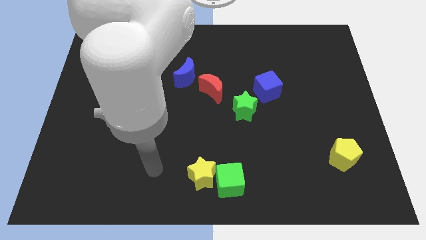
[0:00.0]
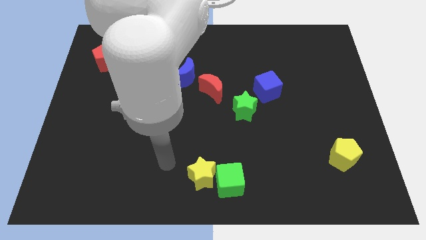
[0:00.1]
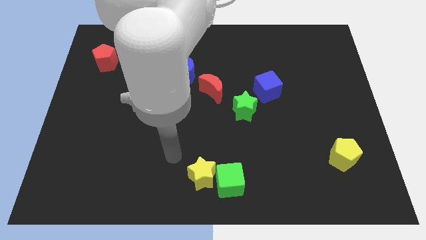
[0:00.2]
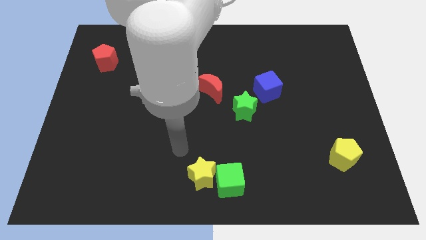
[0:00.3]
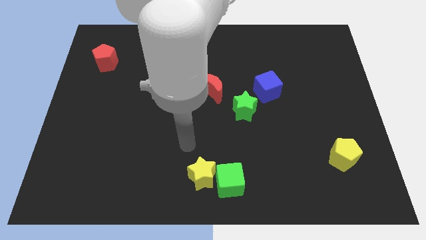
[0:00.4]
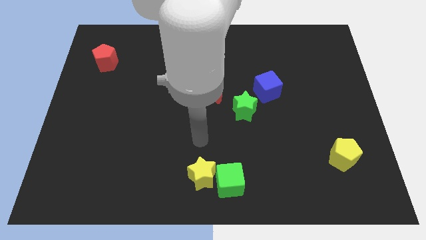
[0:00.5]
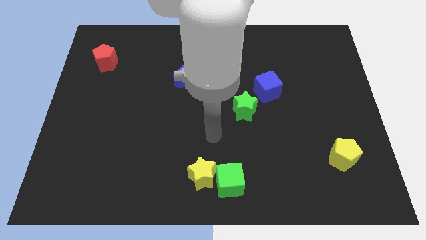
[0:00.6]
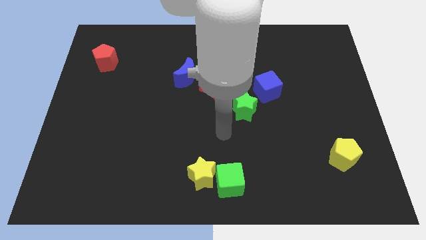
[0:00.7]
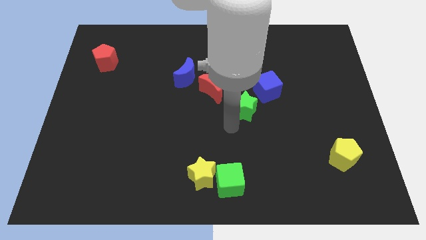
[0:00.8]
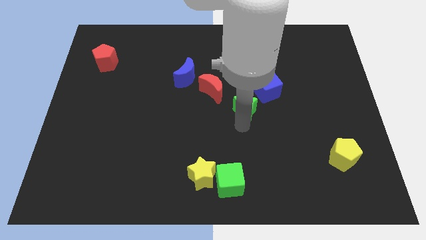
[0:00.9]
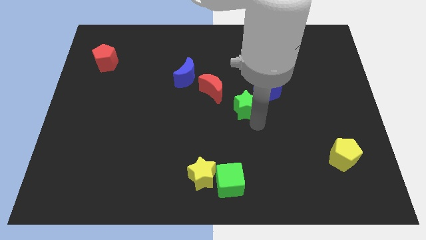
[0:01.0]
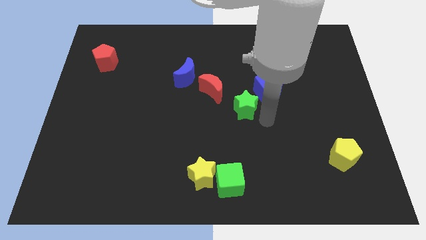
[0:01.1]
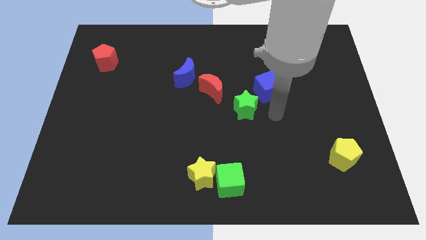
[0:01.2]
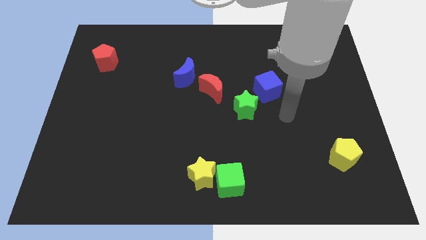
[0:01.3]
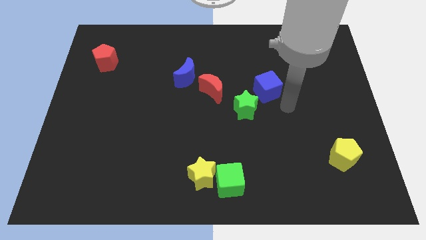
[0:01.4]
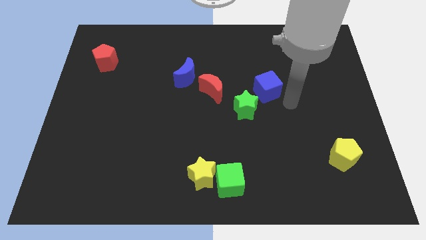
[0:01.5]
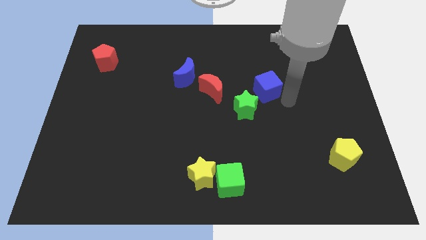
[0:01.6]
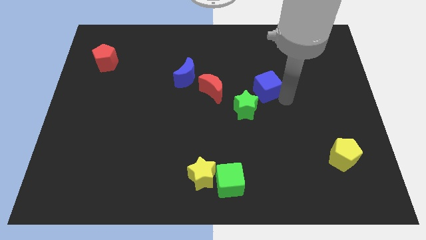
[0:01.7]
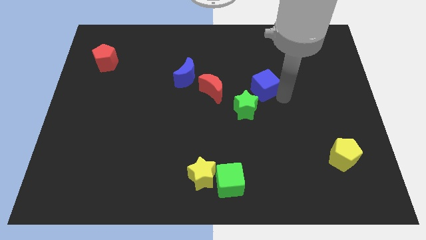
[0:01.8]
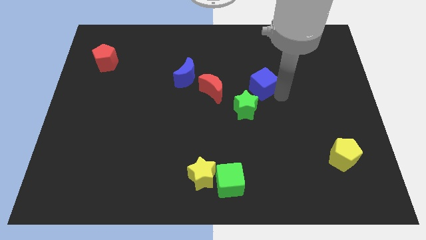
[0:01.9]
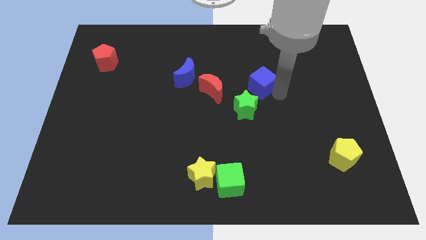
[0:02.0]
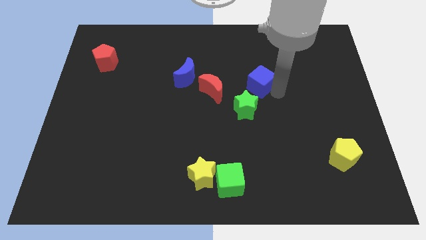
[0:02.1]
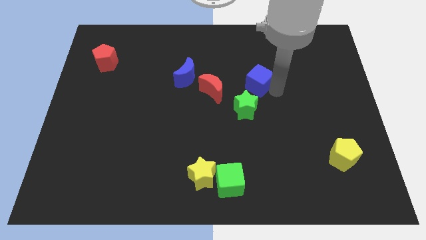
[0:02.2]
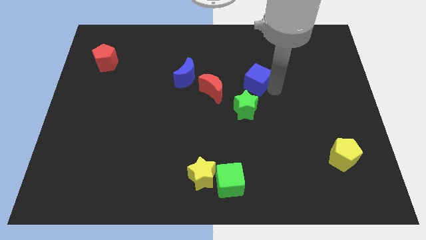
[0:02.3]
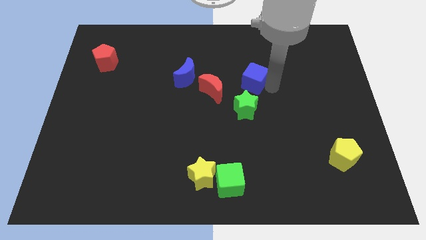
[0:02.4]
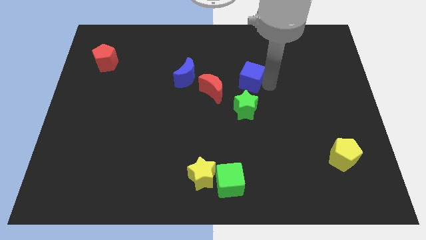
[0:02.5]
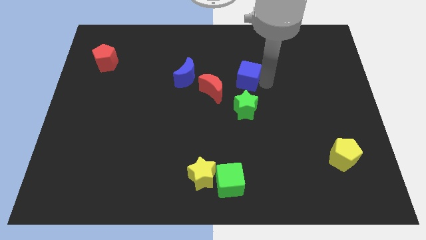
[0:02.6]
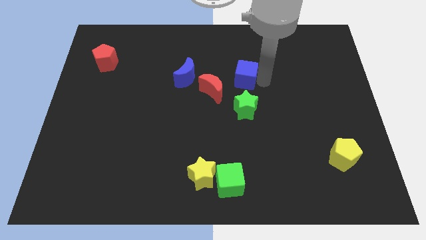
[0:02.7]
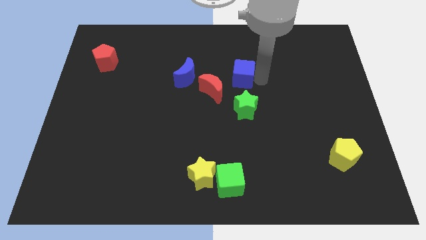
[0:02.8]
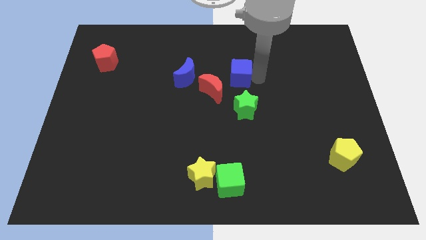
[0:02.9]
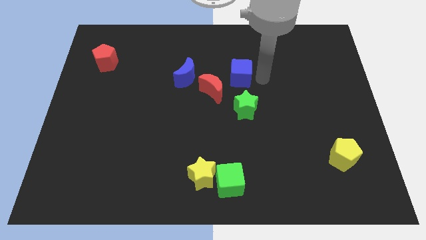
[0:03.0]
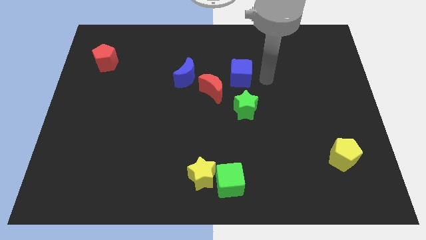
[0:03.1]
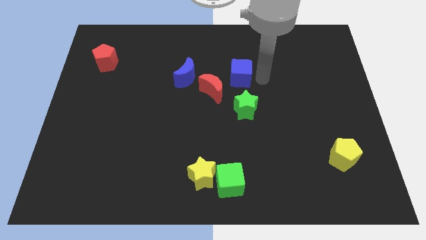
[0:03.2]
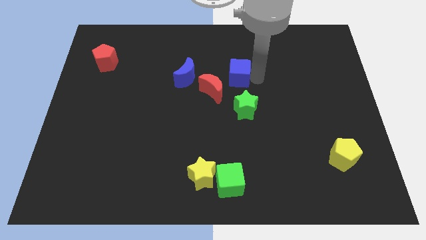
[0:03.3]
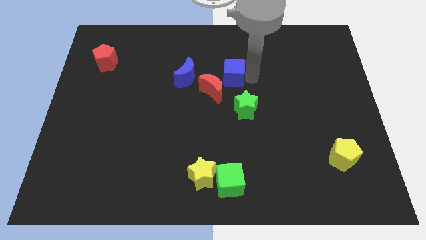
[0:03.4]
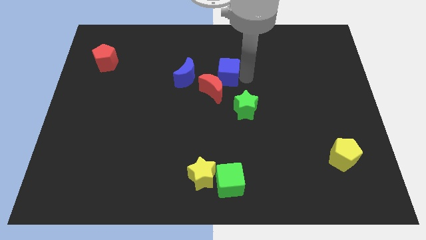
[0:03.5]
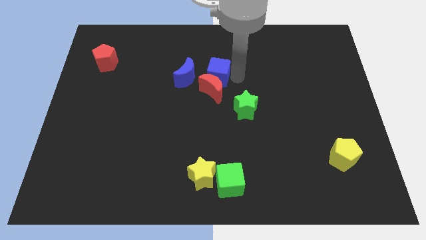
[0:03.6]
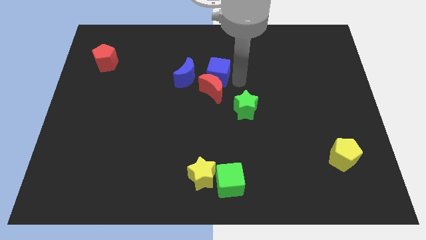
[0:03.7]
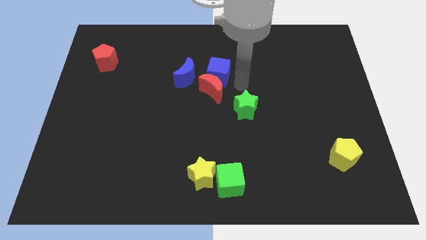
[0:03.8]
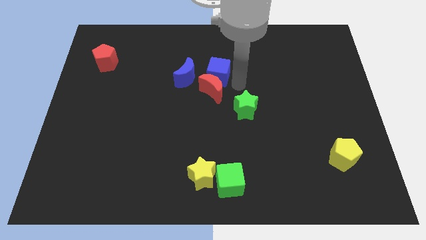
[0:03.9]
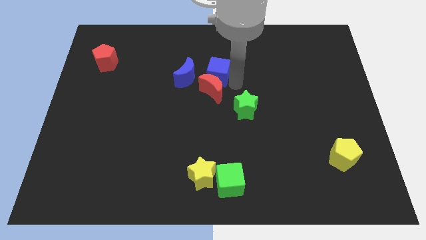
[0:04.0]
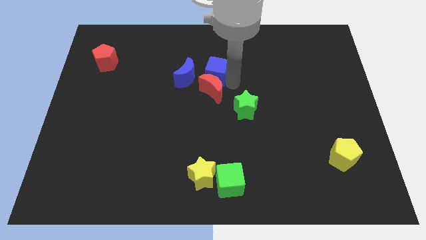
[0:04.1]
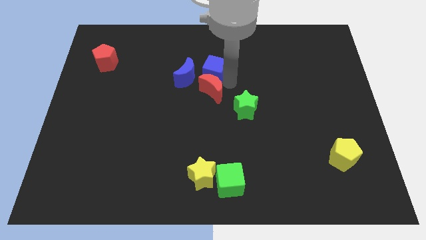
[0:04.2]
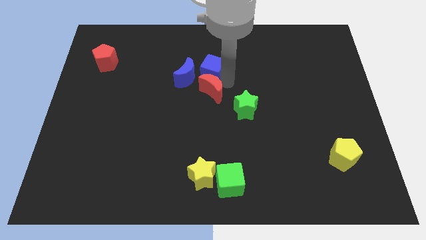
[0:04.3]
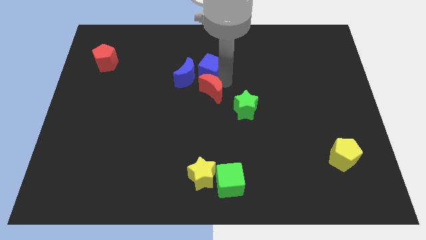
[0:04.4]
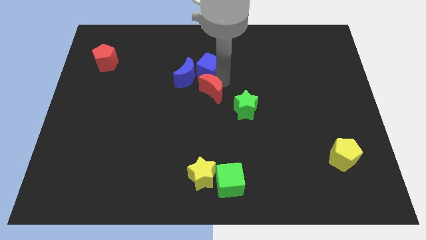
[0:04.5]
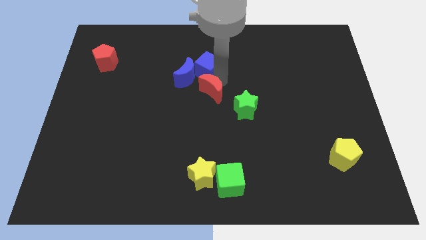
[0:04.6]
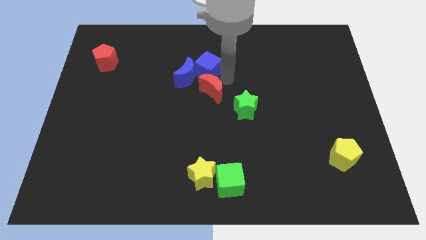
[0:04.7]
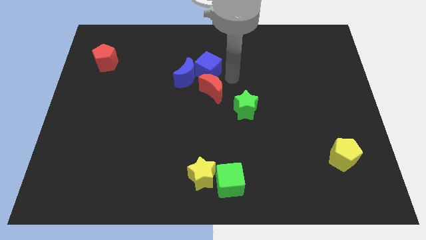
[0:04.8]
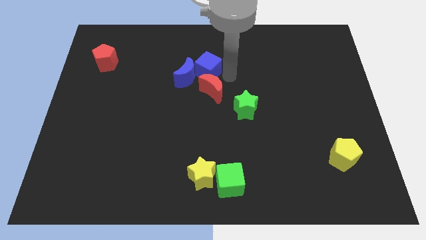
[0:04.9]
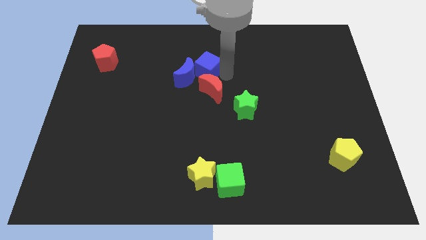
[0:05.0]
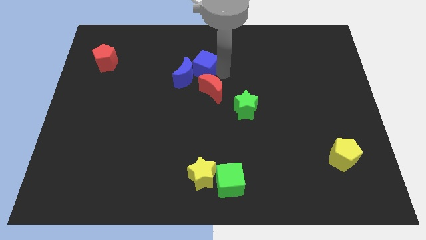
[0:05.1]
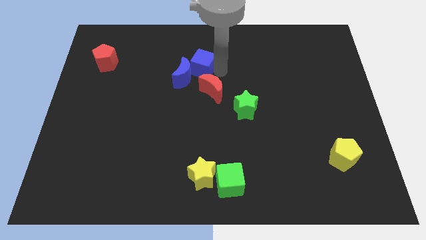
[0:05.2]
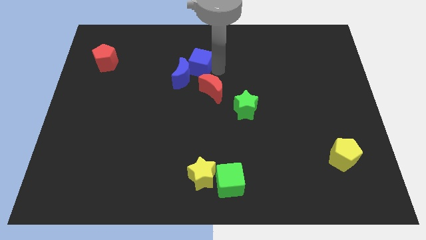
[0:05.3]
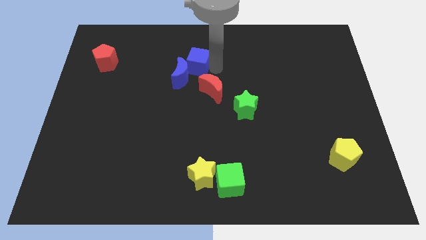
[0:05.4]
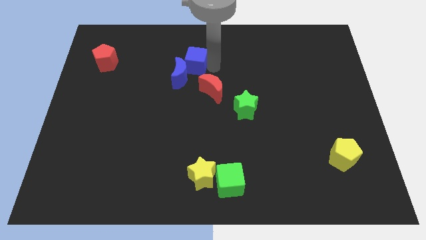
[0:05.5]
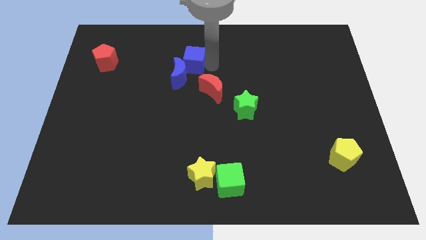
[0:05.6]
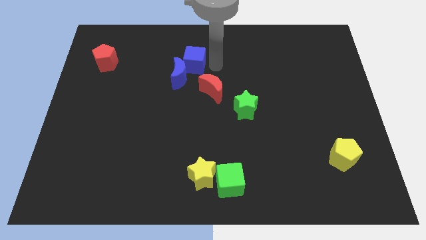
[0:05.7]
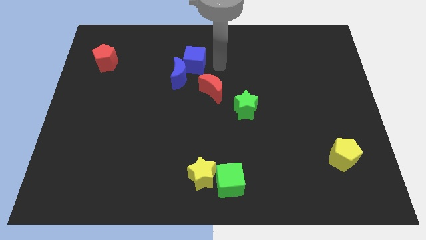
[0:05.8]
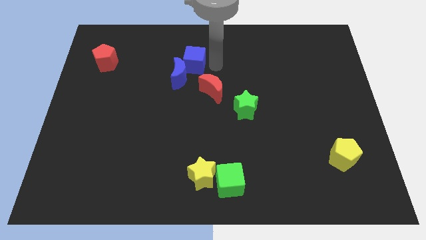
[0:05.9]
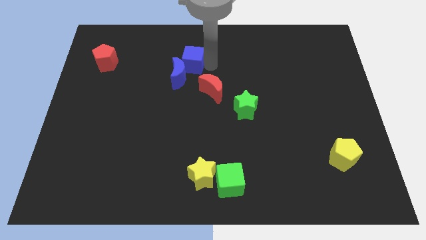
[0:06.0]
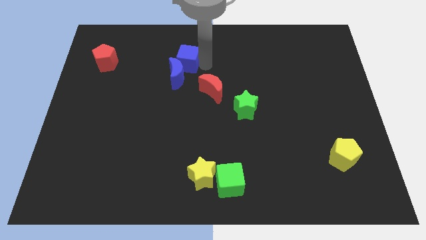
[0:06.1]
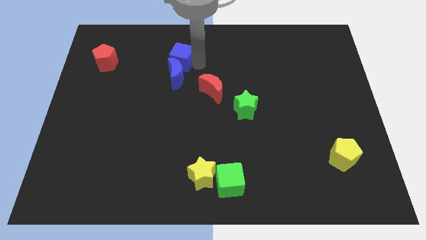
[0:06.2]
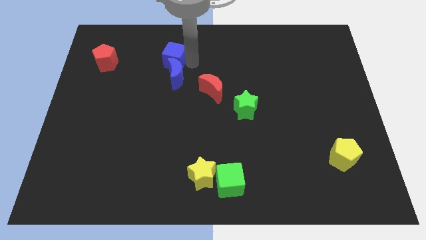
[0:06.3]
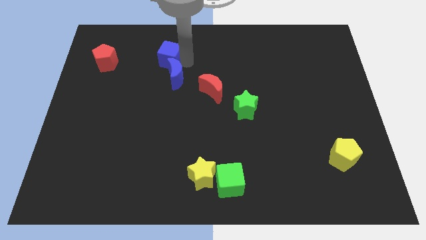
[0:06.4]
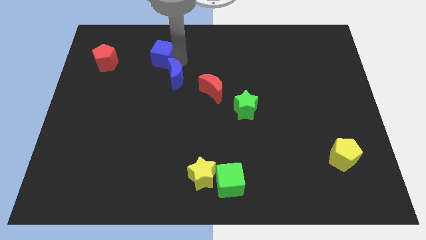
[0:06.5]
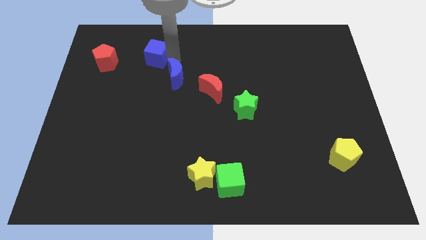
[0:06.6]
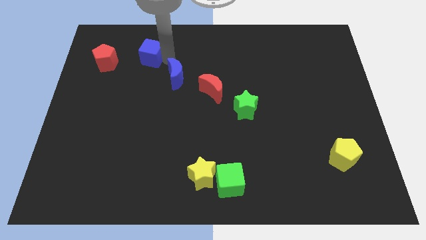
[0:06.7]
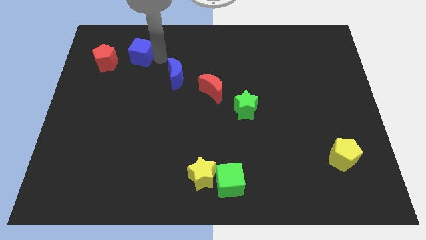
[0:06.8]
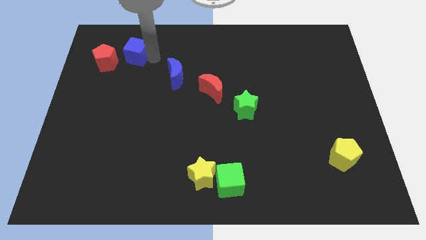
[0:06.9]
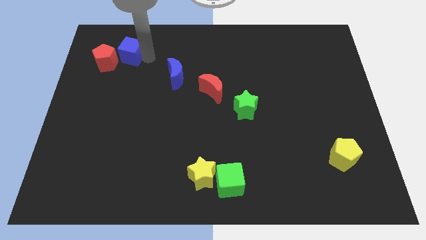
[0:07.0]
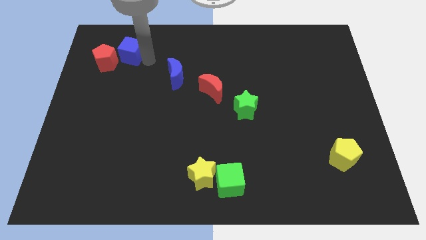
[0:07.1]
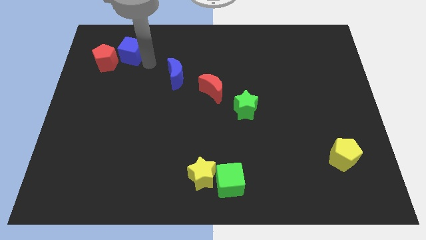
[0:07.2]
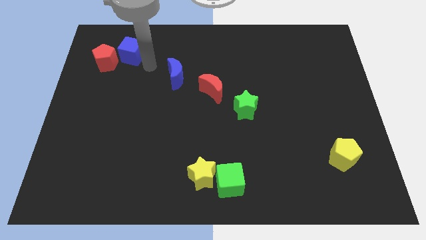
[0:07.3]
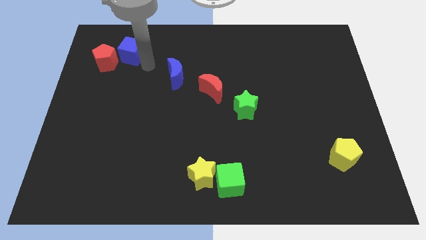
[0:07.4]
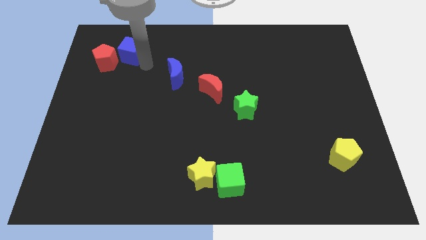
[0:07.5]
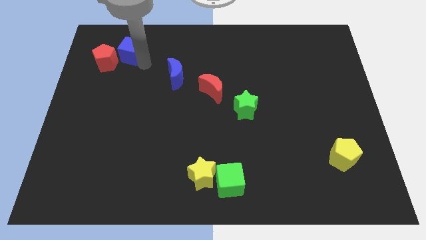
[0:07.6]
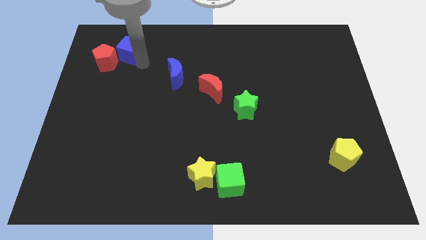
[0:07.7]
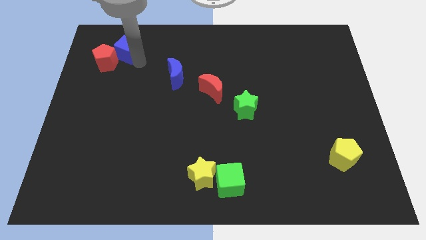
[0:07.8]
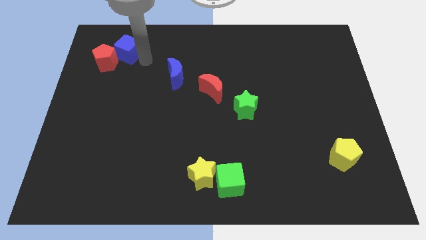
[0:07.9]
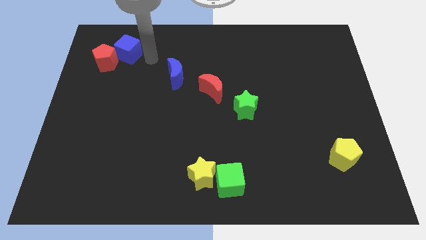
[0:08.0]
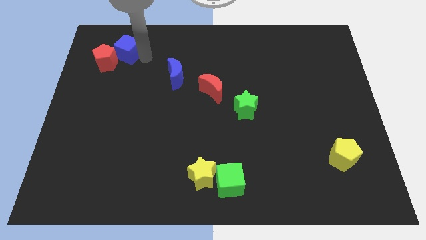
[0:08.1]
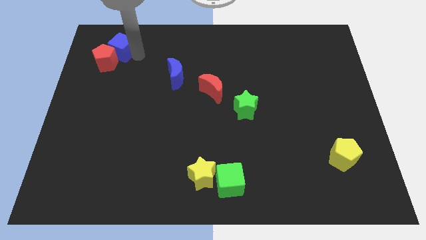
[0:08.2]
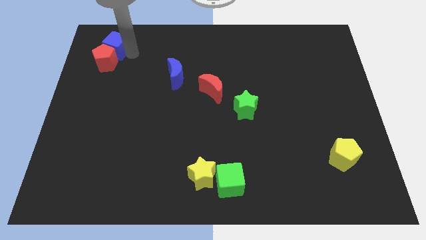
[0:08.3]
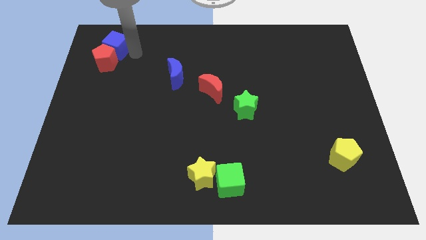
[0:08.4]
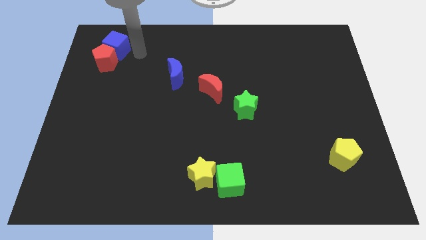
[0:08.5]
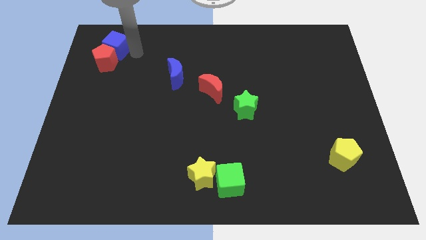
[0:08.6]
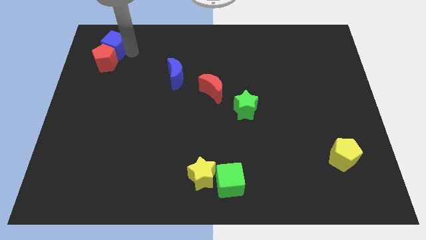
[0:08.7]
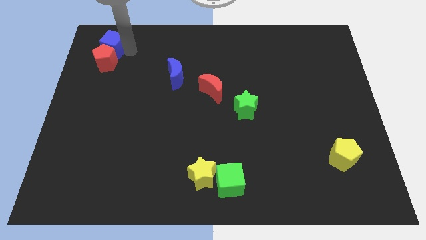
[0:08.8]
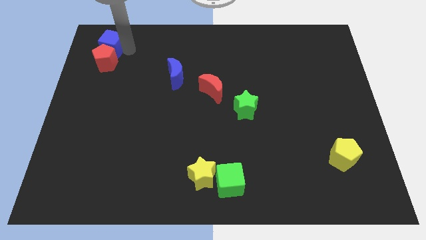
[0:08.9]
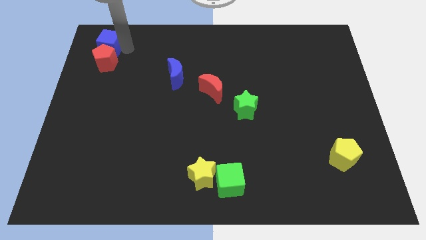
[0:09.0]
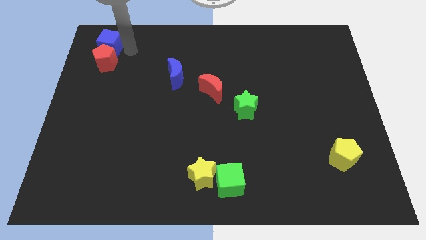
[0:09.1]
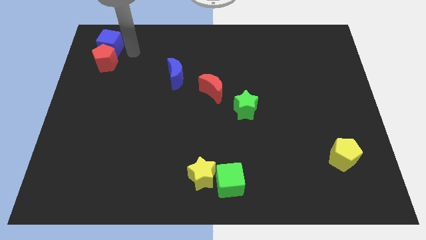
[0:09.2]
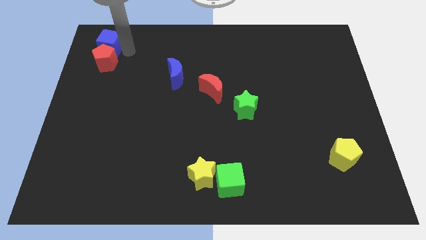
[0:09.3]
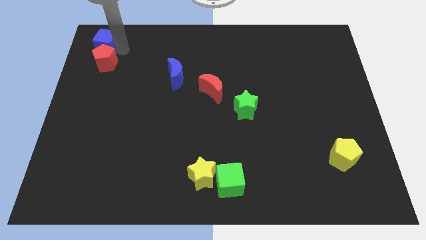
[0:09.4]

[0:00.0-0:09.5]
move the blue cube to the top left of the board
